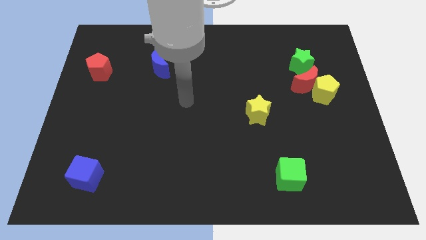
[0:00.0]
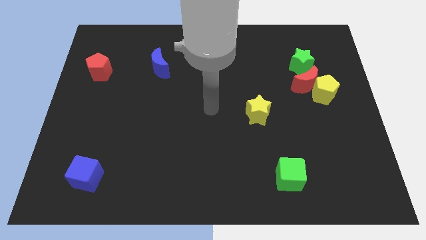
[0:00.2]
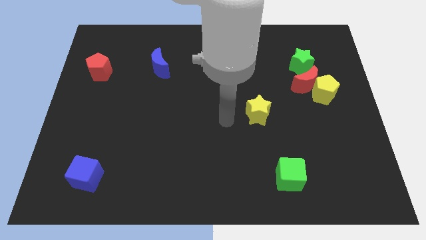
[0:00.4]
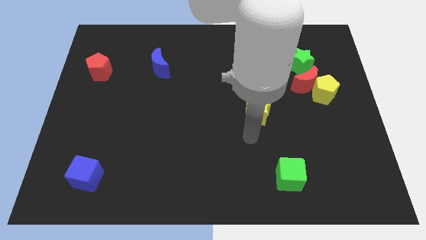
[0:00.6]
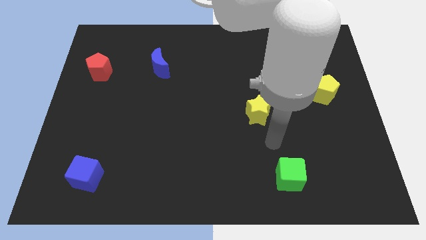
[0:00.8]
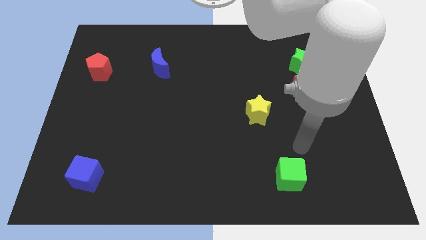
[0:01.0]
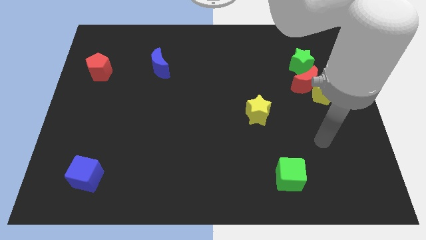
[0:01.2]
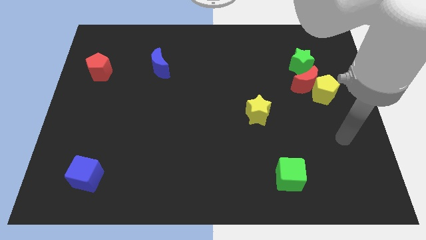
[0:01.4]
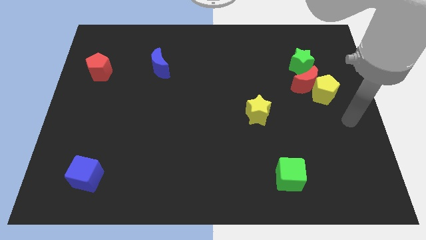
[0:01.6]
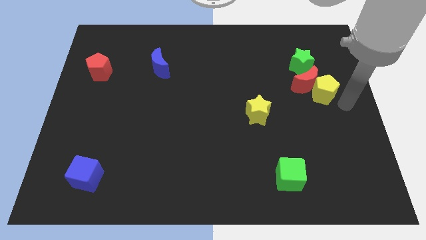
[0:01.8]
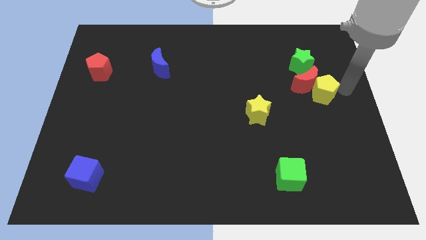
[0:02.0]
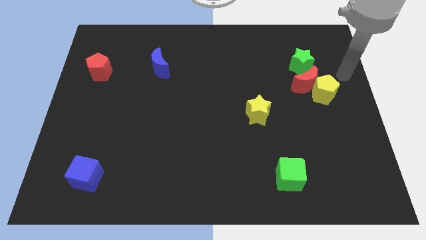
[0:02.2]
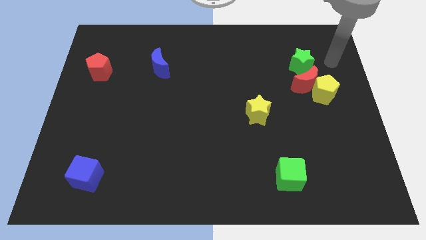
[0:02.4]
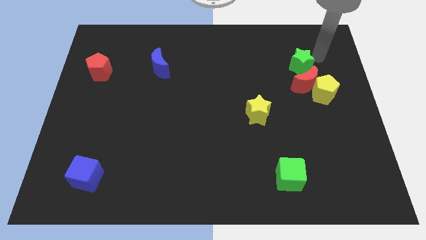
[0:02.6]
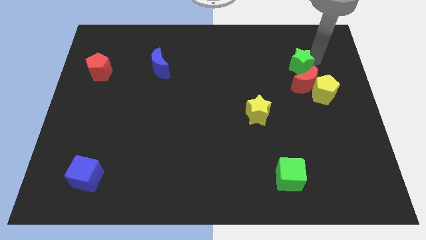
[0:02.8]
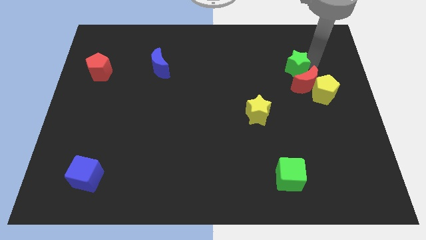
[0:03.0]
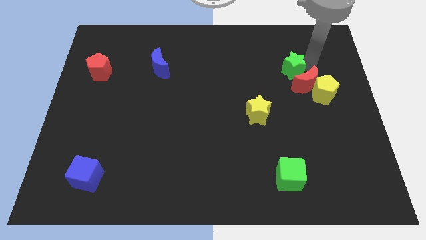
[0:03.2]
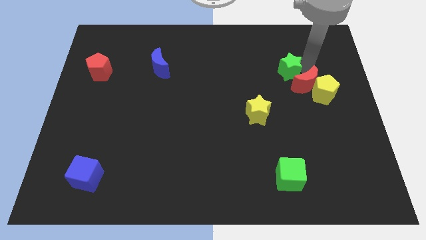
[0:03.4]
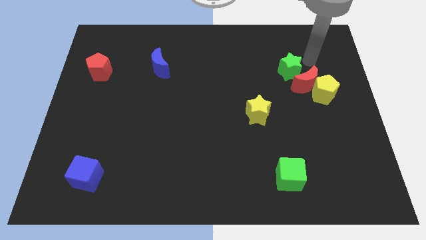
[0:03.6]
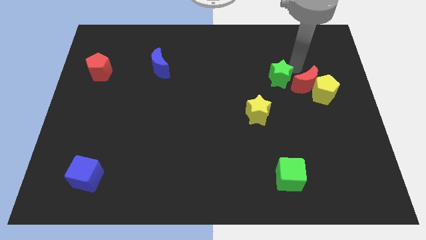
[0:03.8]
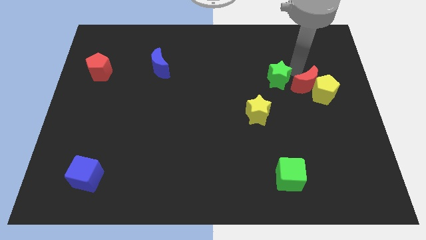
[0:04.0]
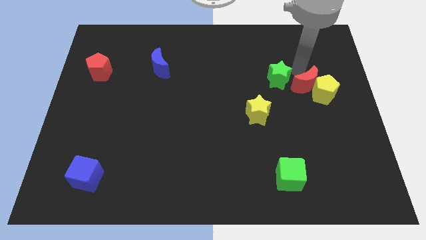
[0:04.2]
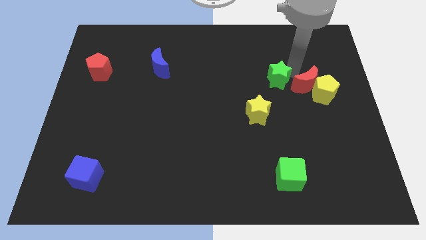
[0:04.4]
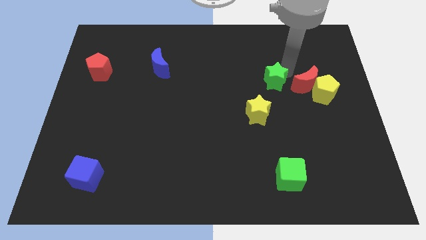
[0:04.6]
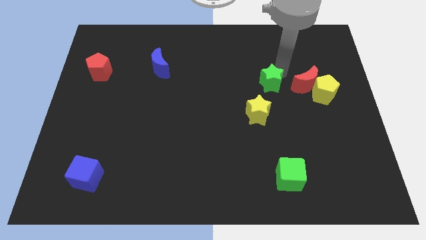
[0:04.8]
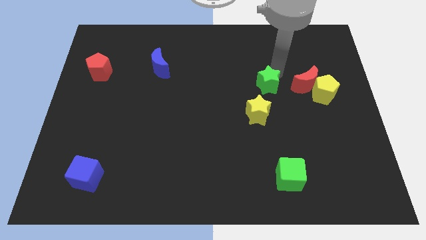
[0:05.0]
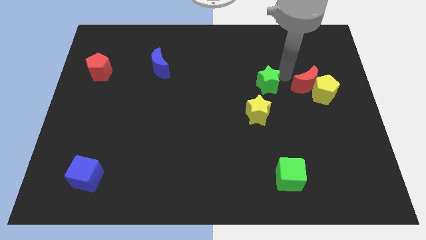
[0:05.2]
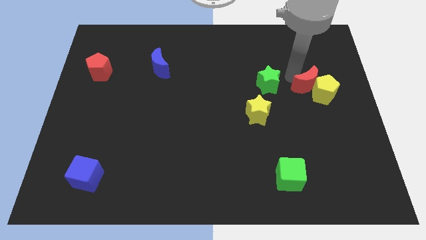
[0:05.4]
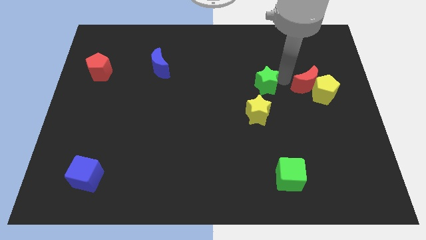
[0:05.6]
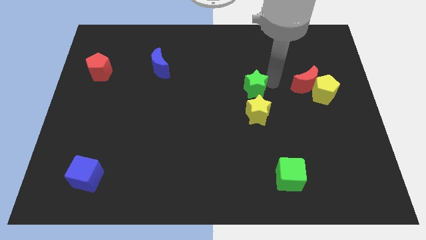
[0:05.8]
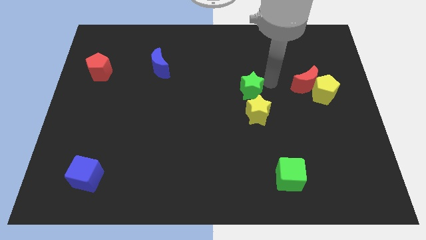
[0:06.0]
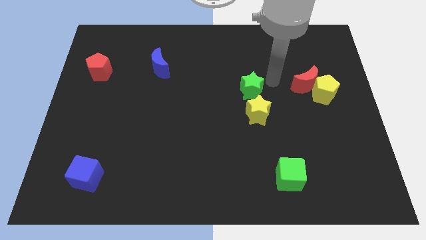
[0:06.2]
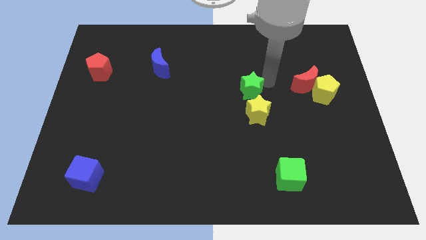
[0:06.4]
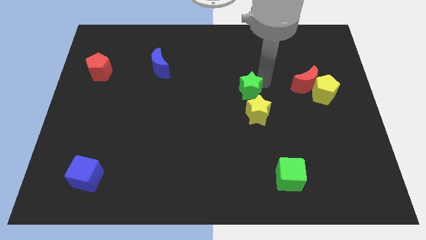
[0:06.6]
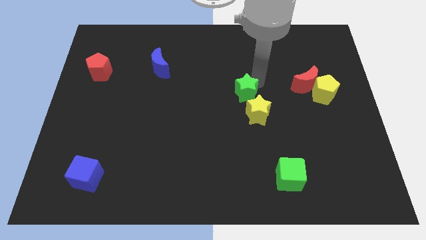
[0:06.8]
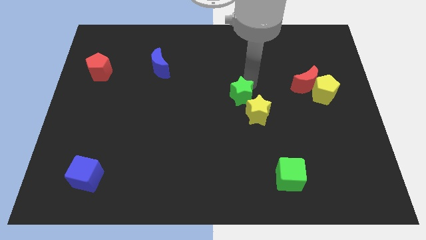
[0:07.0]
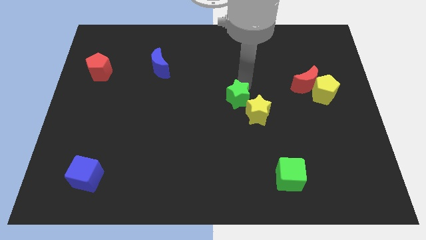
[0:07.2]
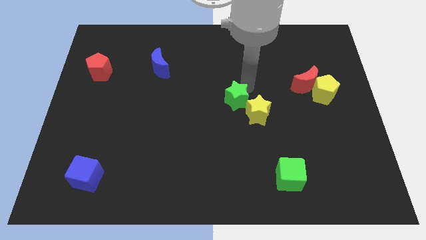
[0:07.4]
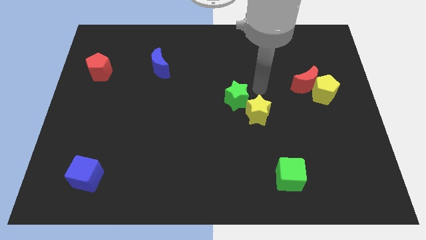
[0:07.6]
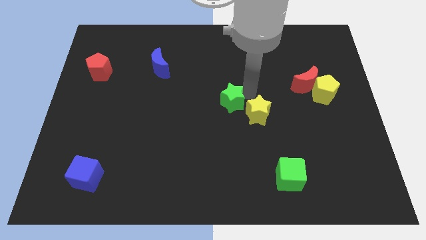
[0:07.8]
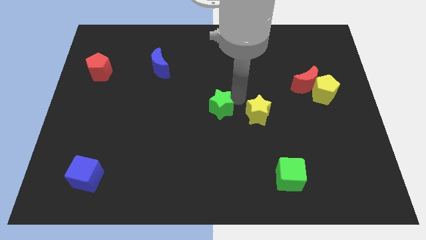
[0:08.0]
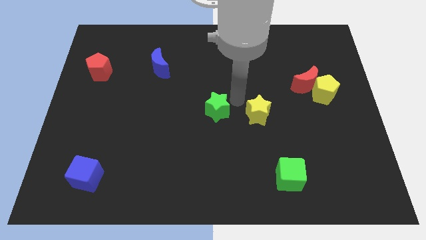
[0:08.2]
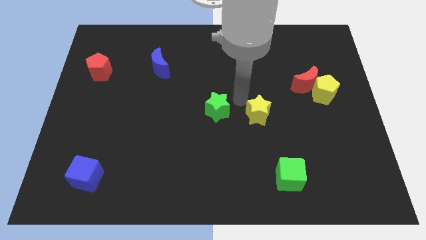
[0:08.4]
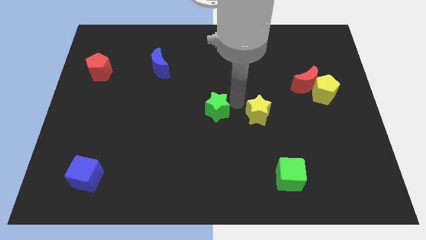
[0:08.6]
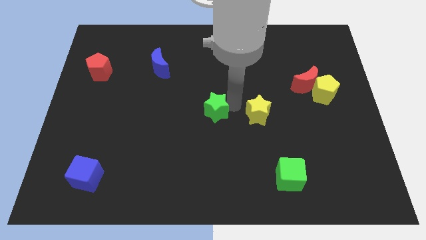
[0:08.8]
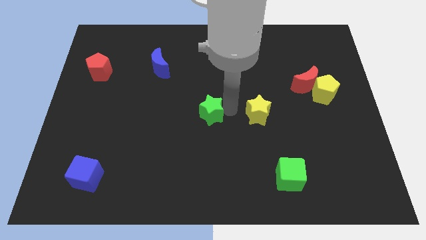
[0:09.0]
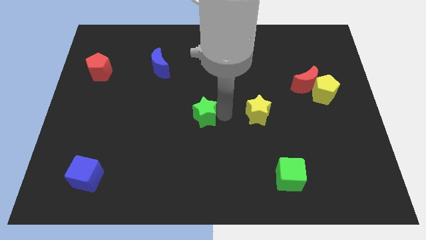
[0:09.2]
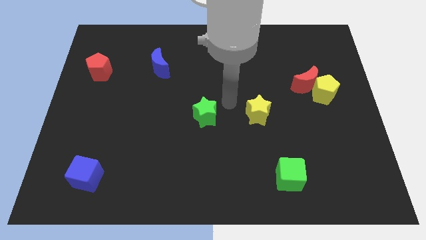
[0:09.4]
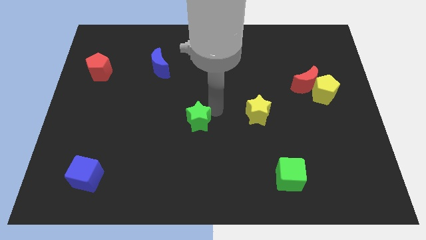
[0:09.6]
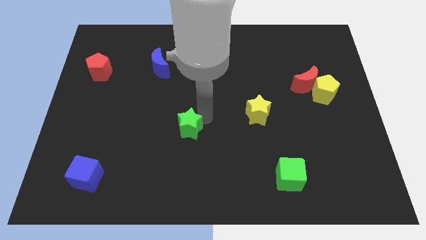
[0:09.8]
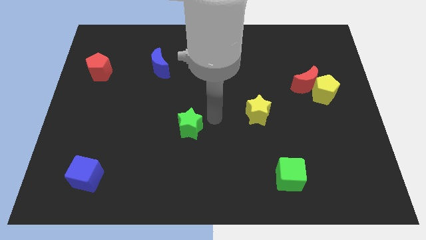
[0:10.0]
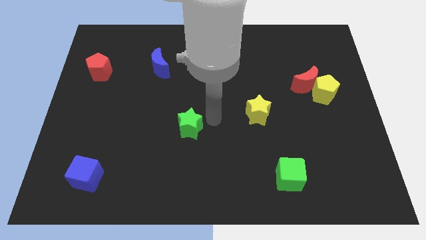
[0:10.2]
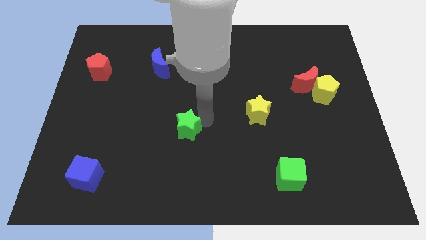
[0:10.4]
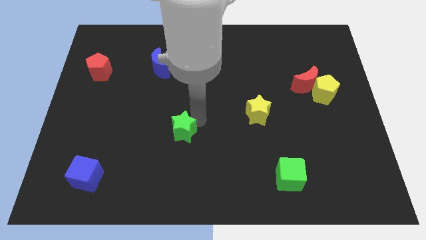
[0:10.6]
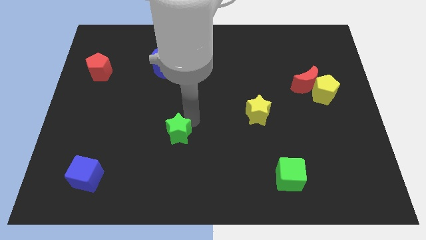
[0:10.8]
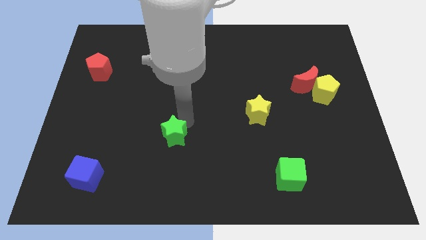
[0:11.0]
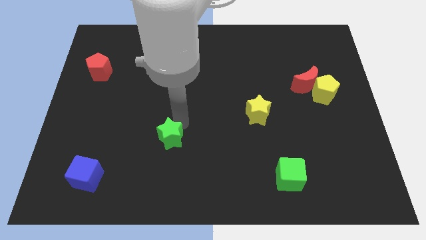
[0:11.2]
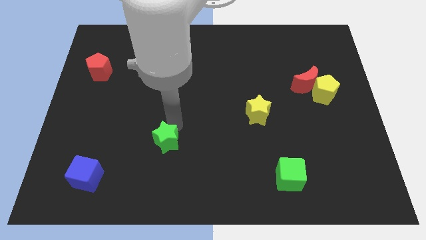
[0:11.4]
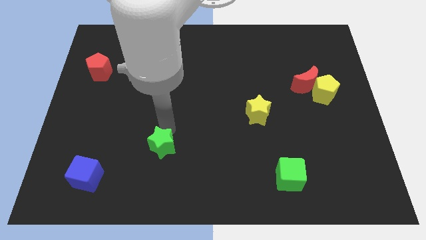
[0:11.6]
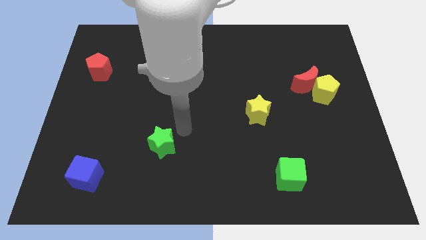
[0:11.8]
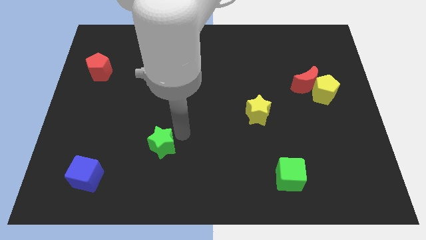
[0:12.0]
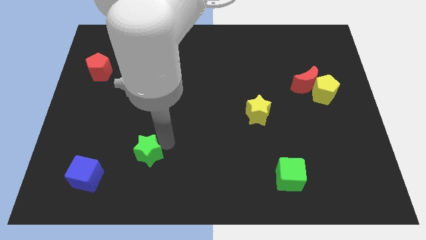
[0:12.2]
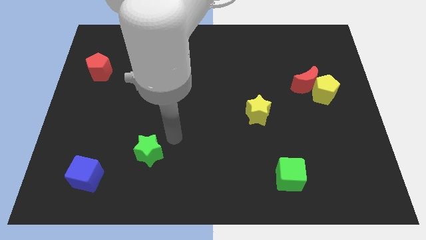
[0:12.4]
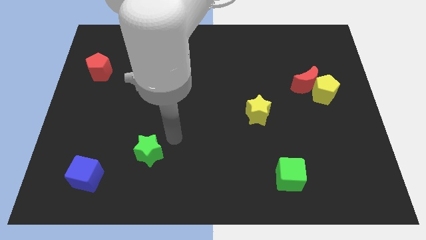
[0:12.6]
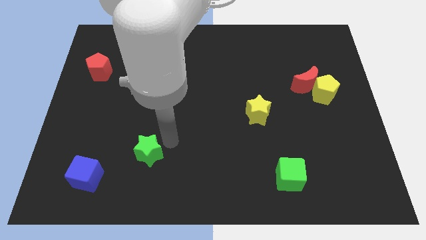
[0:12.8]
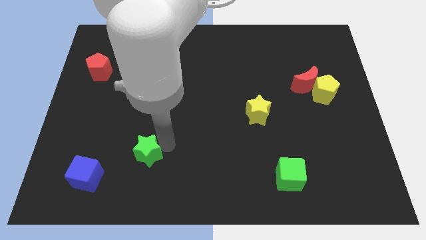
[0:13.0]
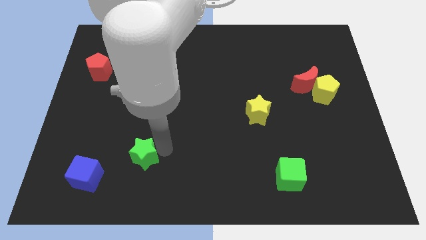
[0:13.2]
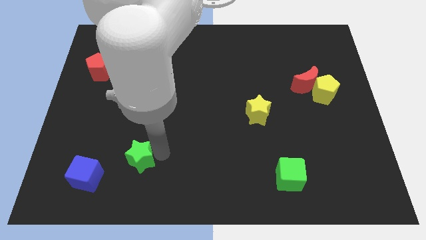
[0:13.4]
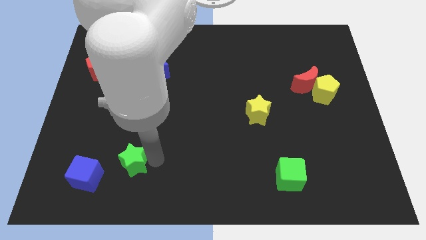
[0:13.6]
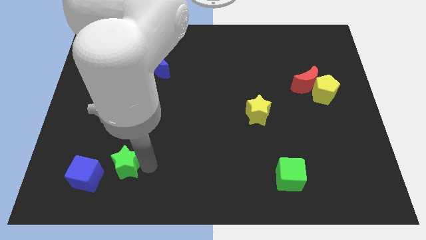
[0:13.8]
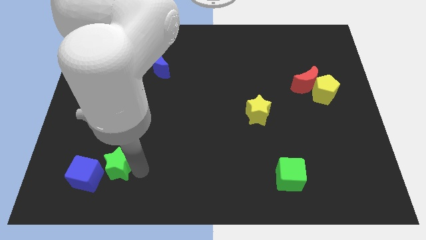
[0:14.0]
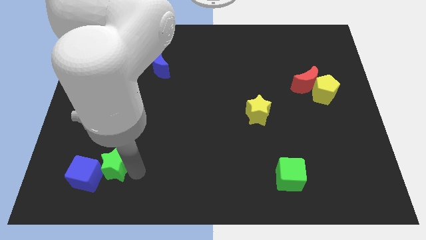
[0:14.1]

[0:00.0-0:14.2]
push the green star close to the blue cube

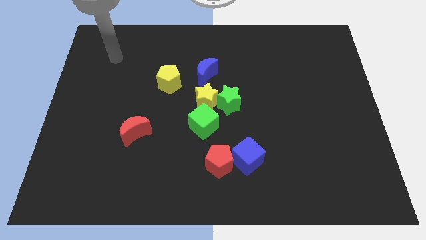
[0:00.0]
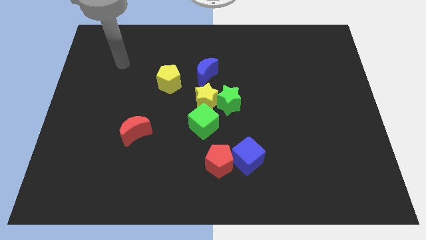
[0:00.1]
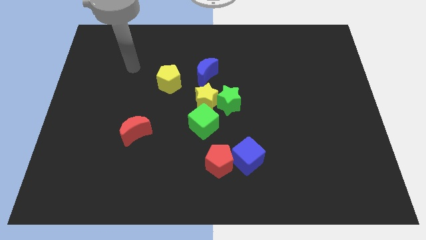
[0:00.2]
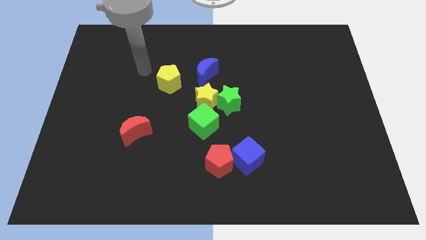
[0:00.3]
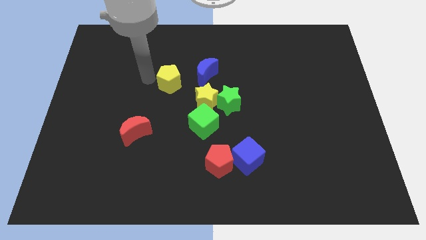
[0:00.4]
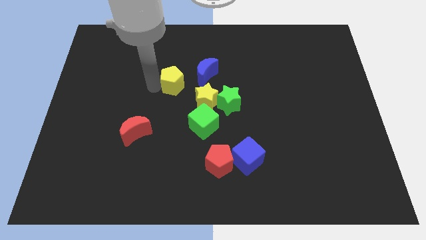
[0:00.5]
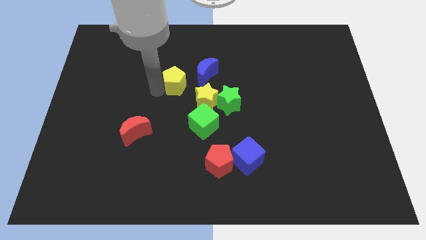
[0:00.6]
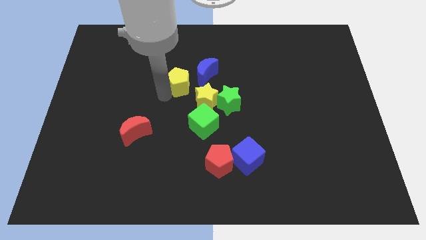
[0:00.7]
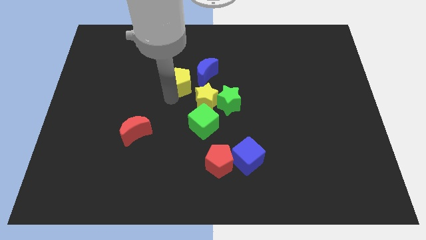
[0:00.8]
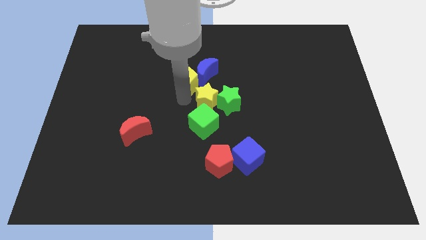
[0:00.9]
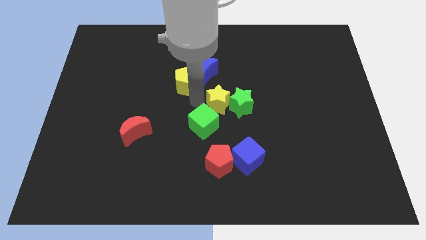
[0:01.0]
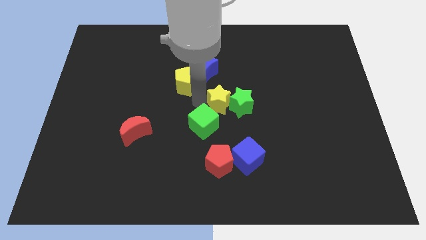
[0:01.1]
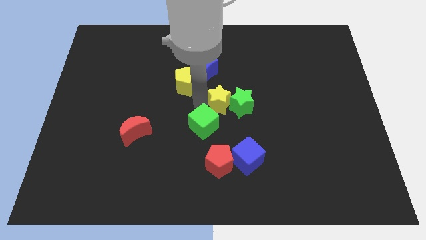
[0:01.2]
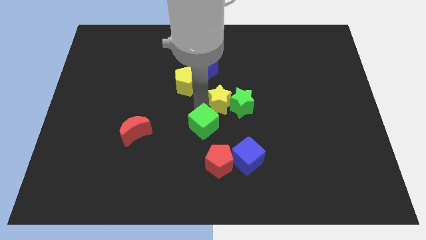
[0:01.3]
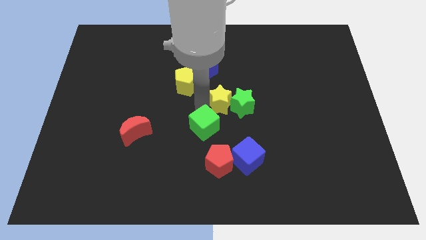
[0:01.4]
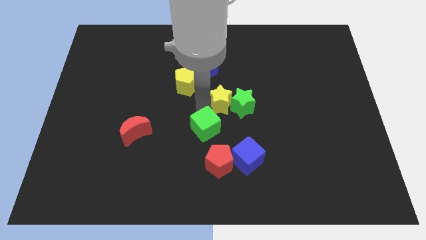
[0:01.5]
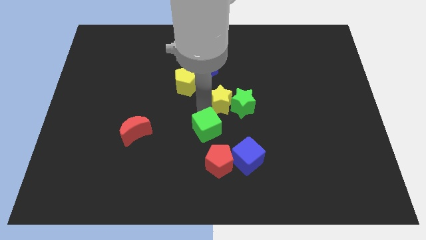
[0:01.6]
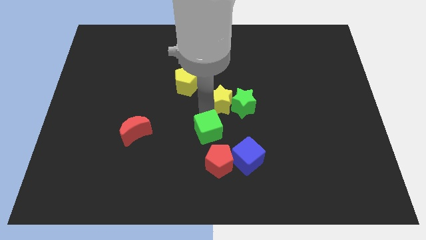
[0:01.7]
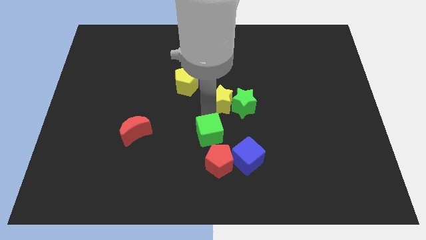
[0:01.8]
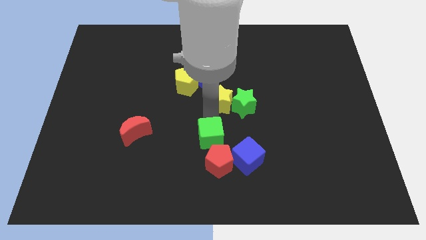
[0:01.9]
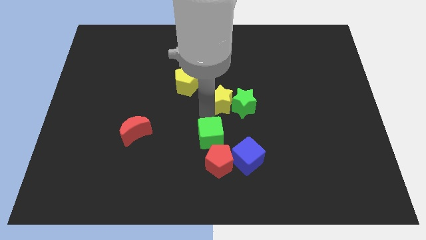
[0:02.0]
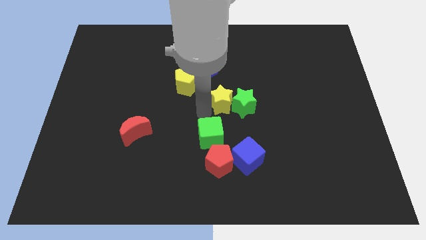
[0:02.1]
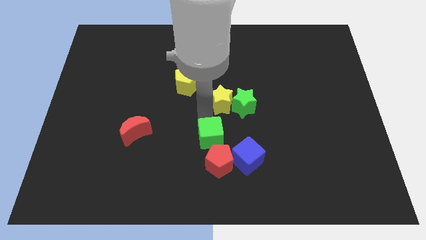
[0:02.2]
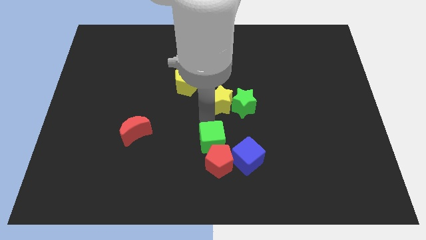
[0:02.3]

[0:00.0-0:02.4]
slide the green cube close to the red pentagon
